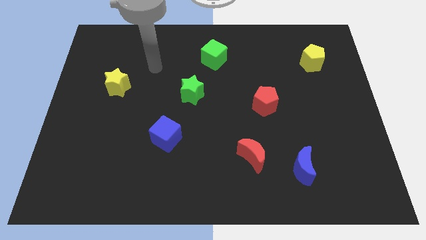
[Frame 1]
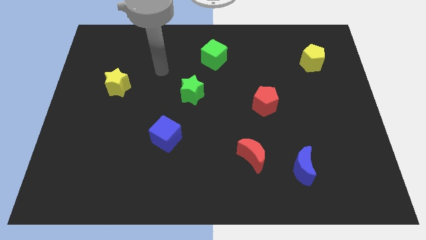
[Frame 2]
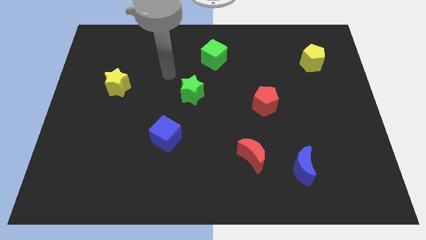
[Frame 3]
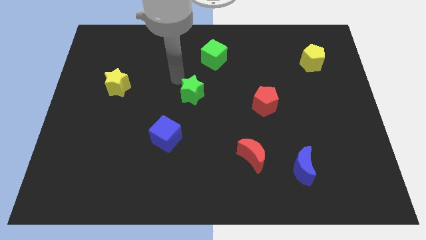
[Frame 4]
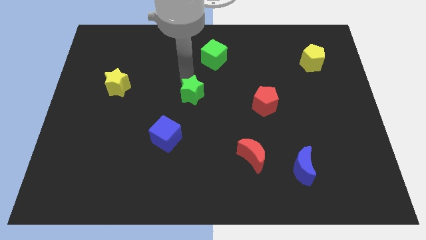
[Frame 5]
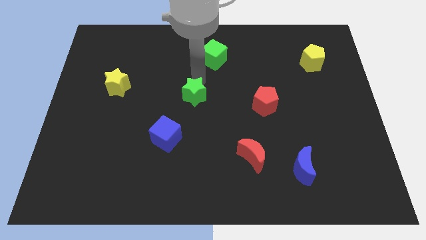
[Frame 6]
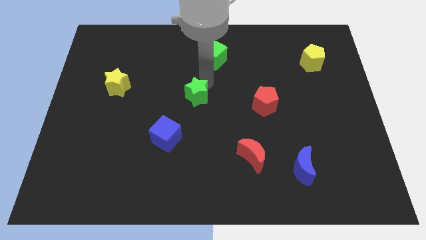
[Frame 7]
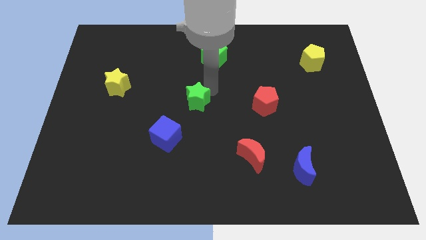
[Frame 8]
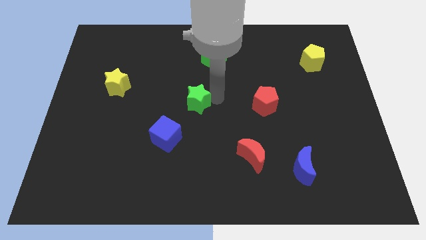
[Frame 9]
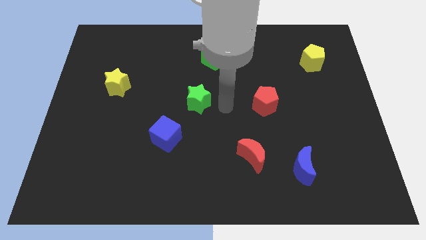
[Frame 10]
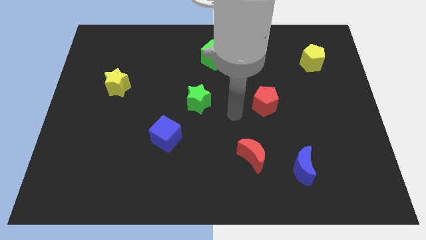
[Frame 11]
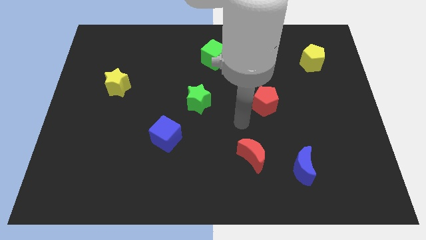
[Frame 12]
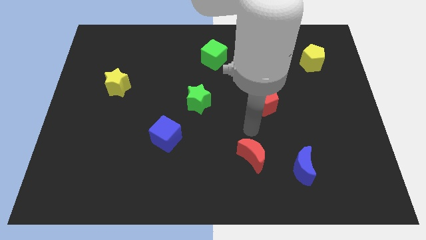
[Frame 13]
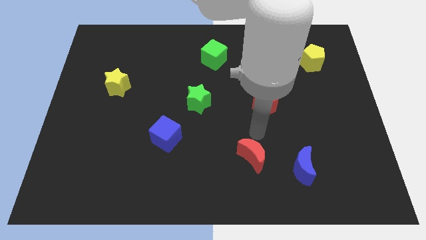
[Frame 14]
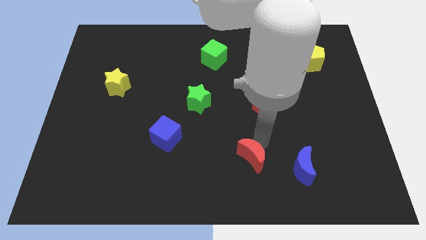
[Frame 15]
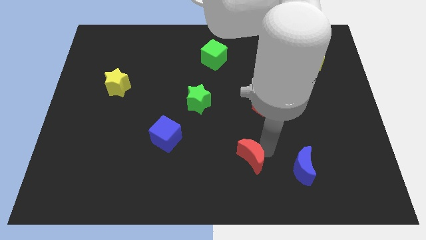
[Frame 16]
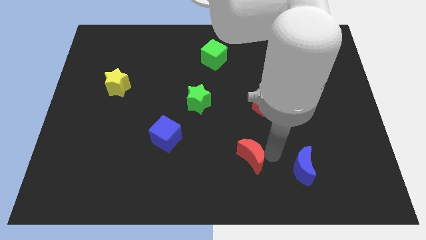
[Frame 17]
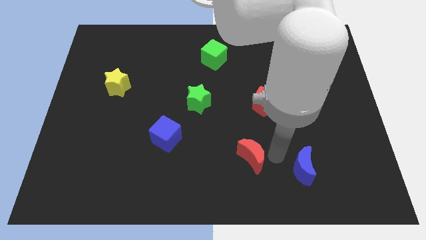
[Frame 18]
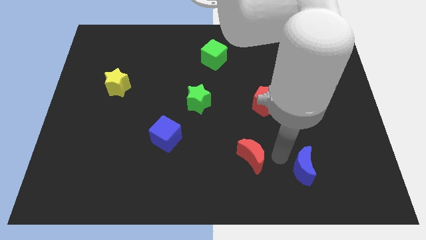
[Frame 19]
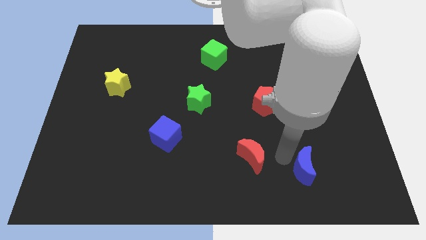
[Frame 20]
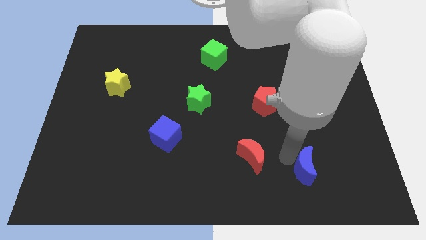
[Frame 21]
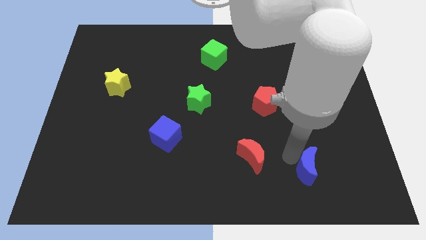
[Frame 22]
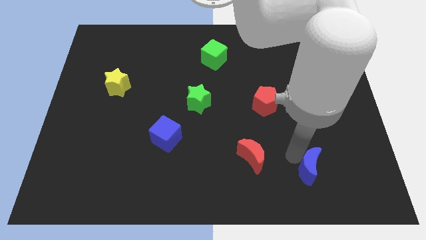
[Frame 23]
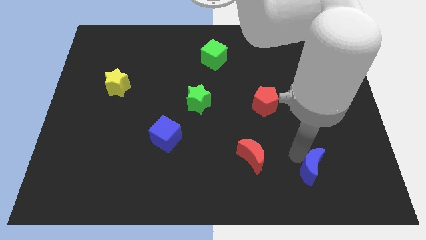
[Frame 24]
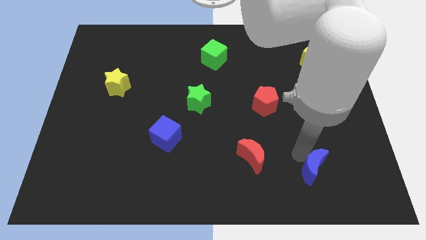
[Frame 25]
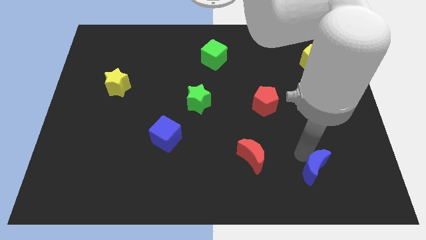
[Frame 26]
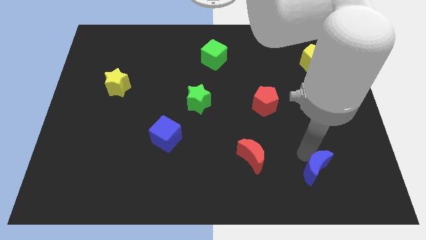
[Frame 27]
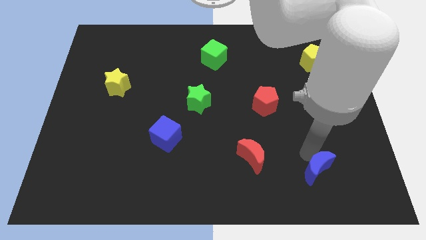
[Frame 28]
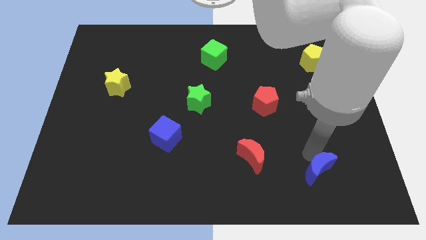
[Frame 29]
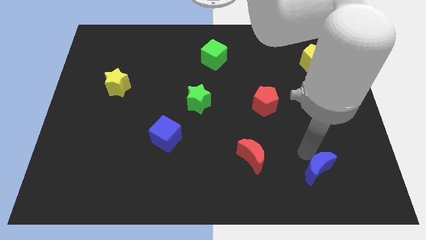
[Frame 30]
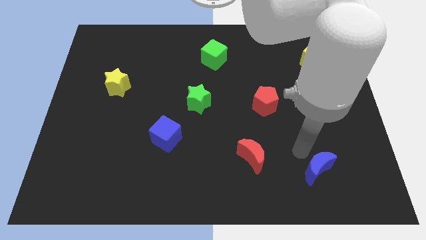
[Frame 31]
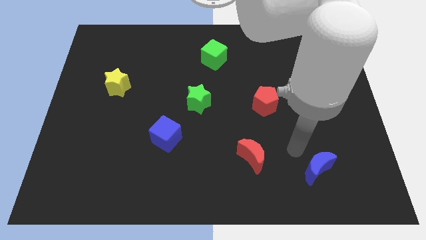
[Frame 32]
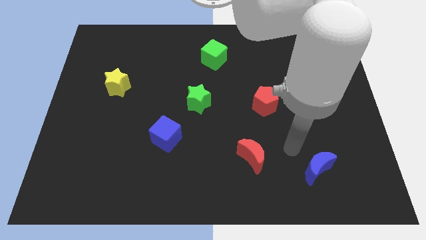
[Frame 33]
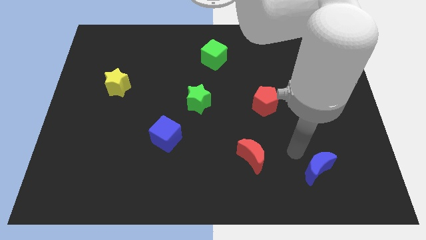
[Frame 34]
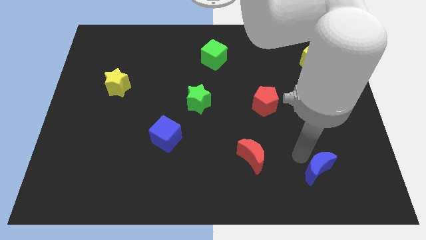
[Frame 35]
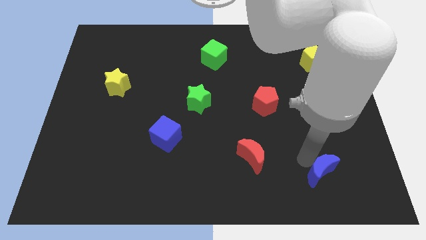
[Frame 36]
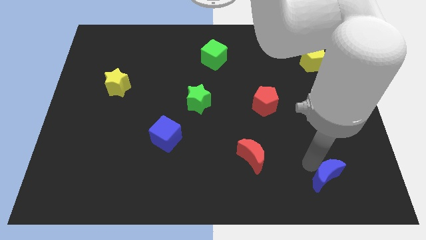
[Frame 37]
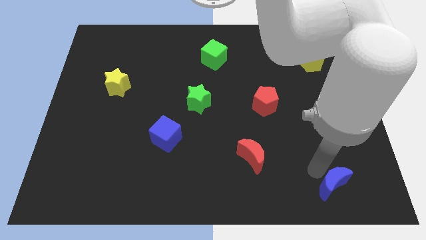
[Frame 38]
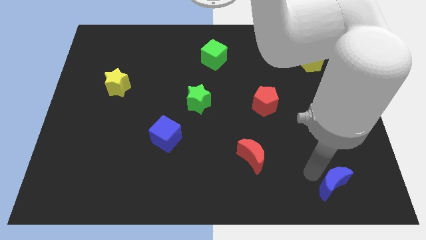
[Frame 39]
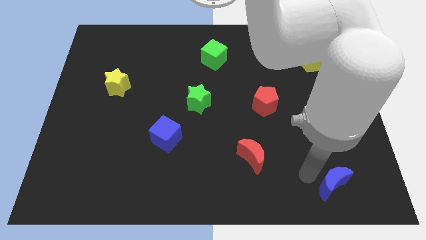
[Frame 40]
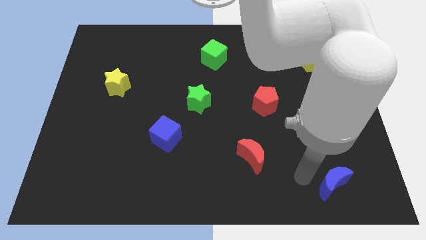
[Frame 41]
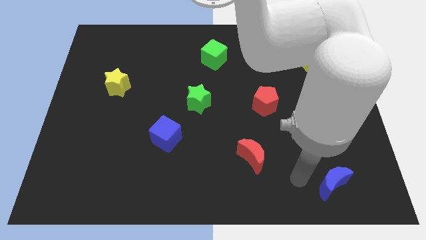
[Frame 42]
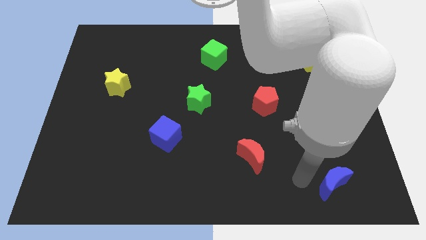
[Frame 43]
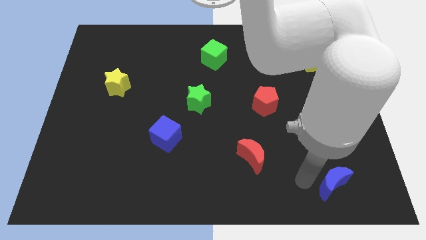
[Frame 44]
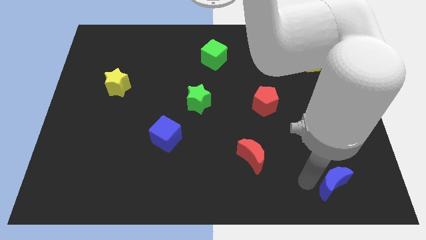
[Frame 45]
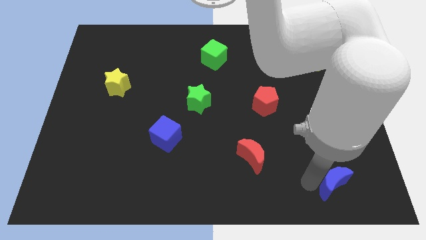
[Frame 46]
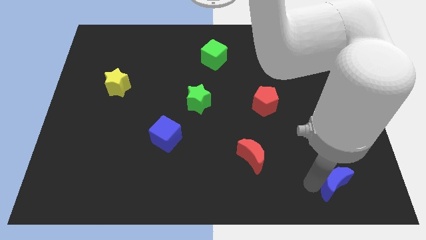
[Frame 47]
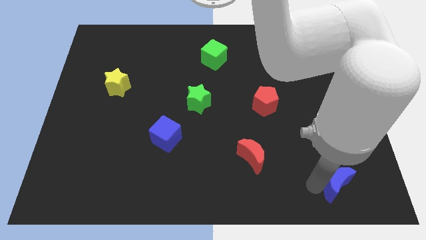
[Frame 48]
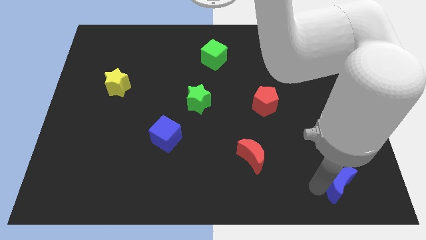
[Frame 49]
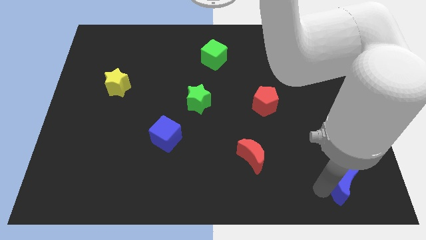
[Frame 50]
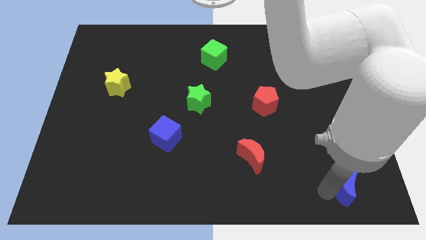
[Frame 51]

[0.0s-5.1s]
slide the blue moon to the bottom right

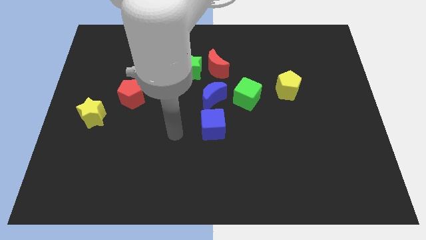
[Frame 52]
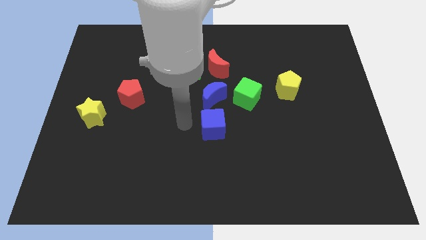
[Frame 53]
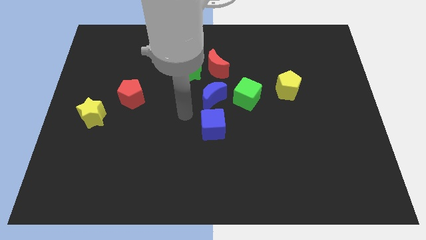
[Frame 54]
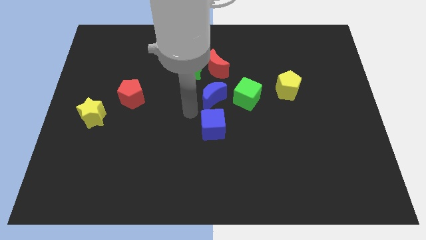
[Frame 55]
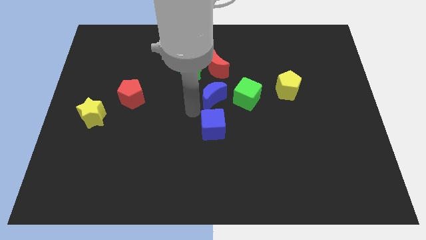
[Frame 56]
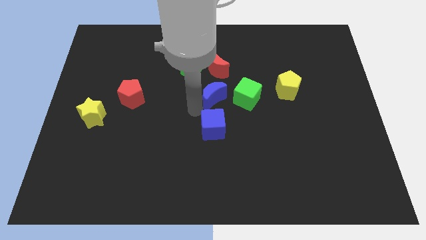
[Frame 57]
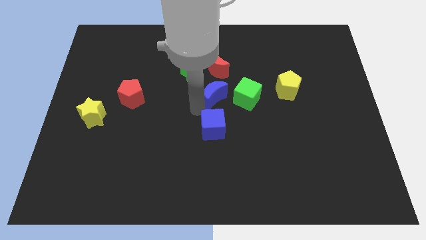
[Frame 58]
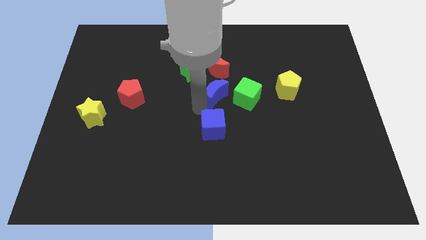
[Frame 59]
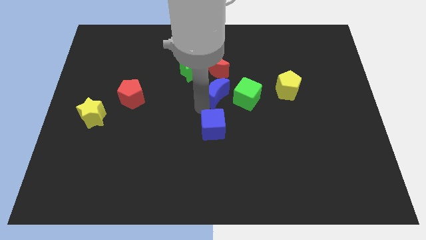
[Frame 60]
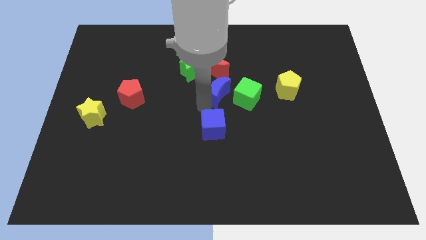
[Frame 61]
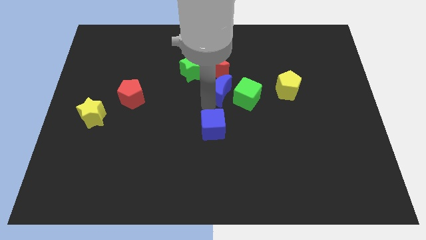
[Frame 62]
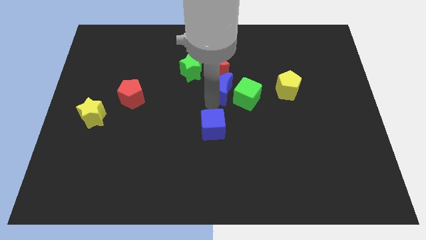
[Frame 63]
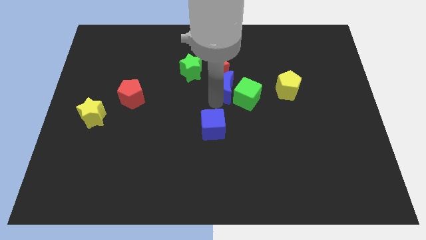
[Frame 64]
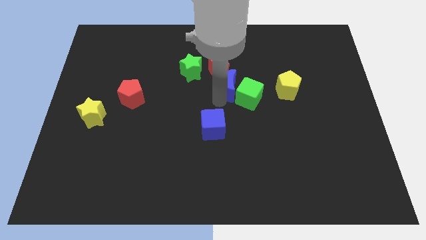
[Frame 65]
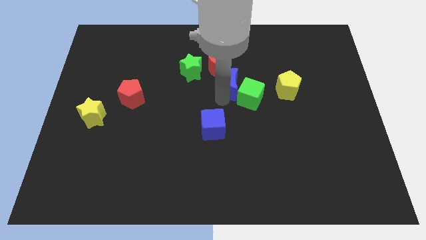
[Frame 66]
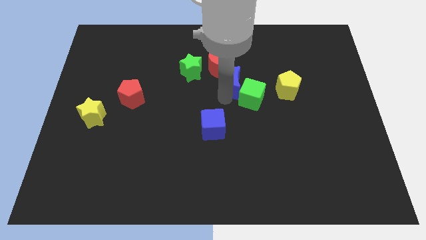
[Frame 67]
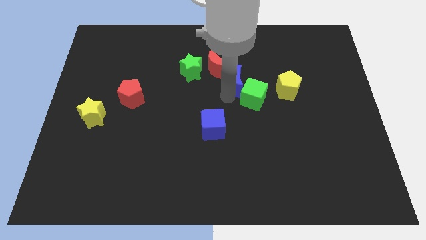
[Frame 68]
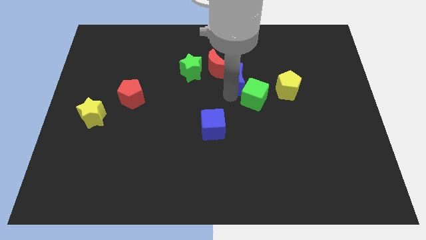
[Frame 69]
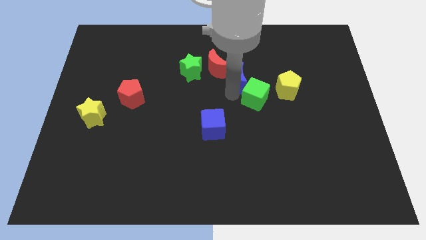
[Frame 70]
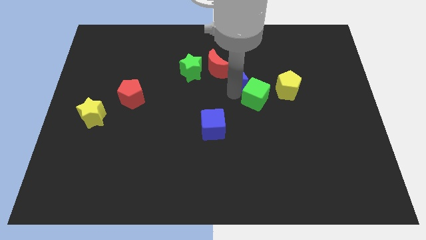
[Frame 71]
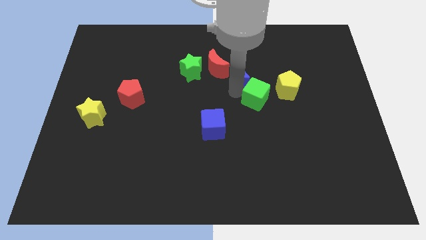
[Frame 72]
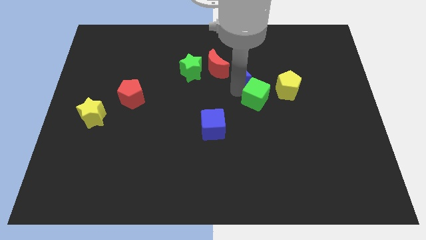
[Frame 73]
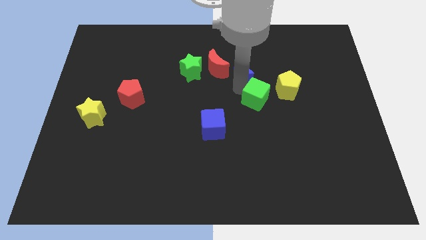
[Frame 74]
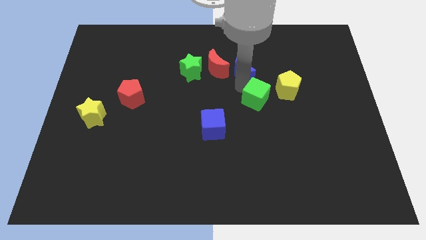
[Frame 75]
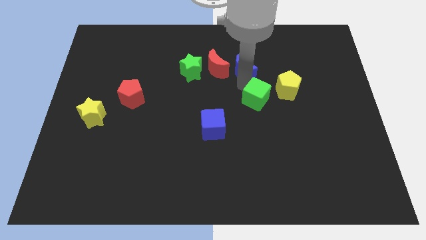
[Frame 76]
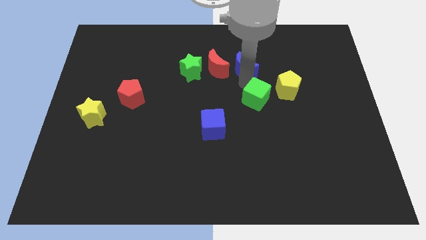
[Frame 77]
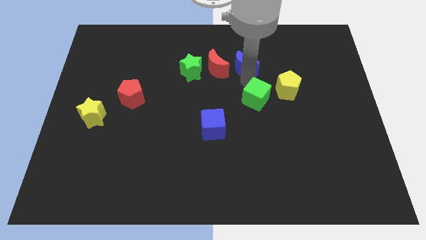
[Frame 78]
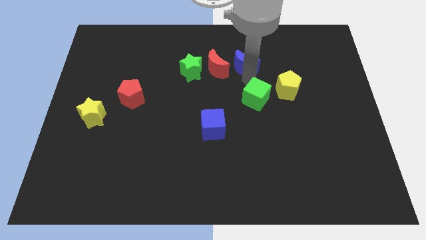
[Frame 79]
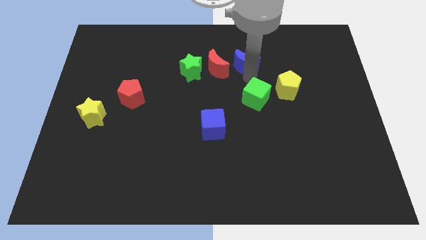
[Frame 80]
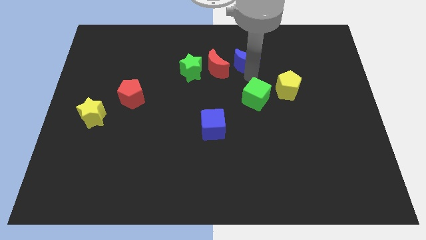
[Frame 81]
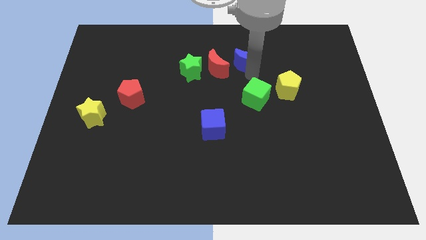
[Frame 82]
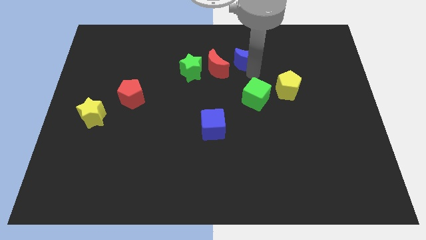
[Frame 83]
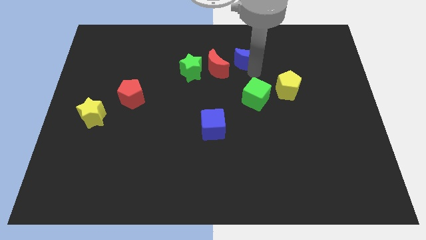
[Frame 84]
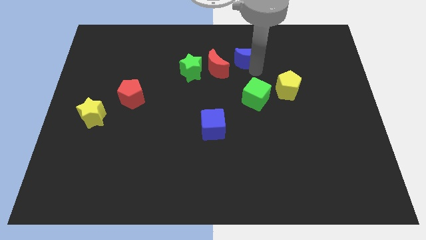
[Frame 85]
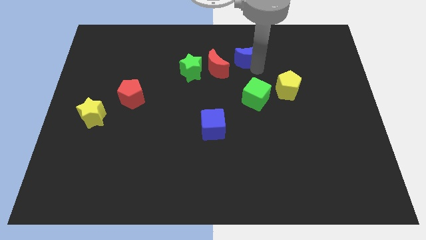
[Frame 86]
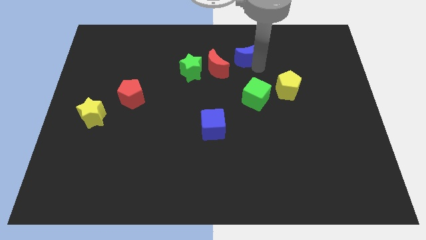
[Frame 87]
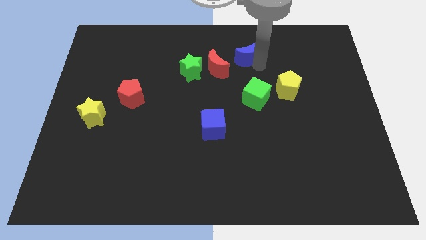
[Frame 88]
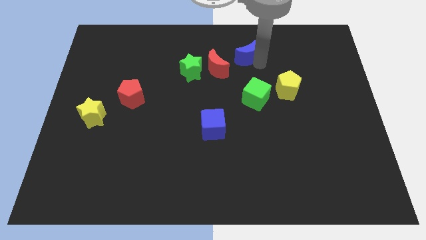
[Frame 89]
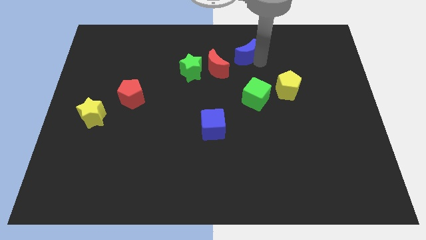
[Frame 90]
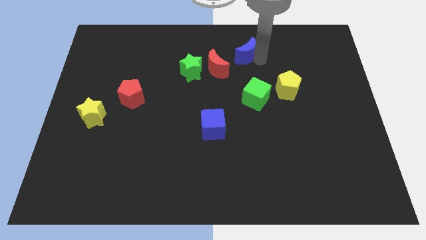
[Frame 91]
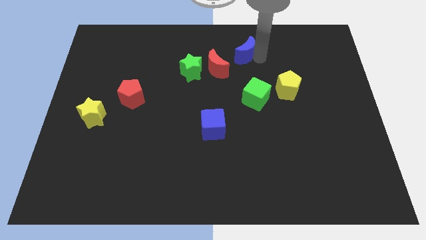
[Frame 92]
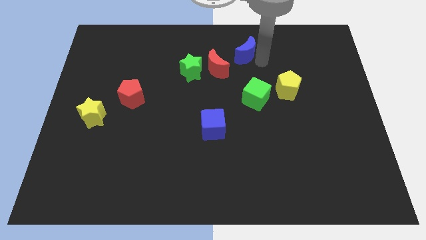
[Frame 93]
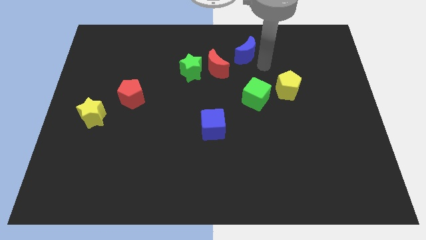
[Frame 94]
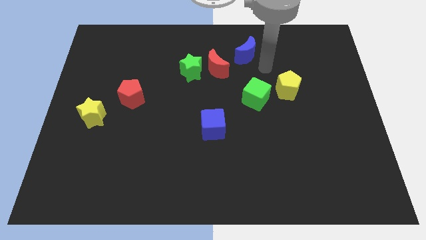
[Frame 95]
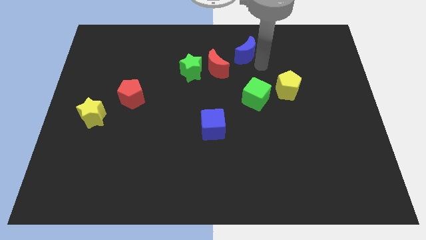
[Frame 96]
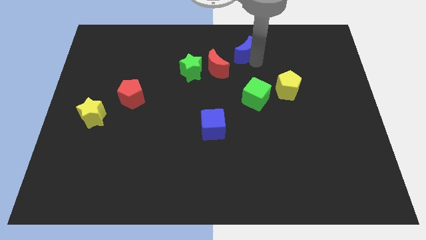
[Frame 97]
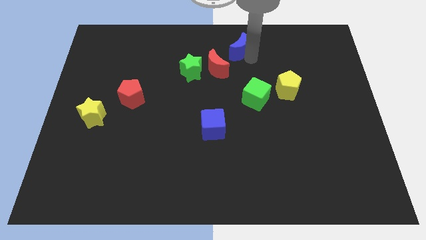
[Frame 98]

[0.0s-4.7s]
move the blue moon to the top side
